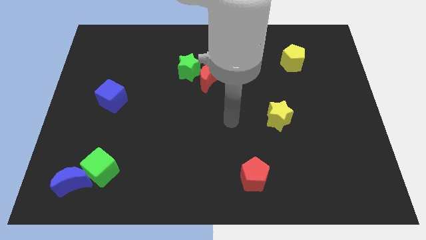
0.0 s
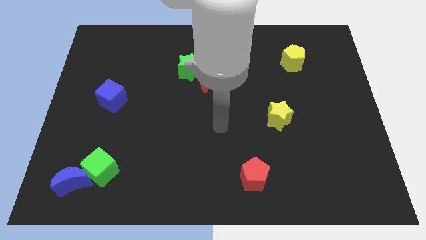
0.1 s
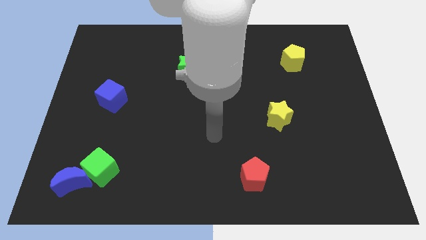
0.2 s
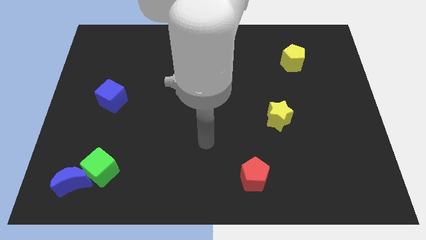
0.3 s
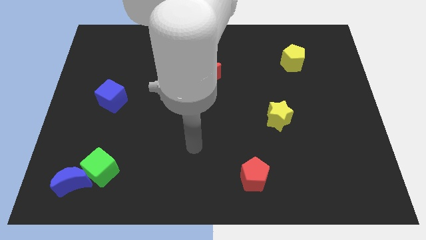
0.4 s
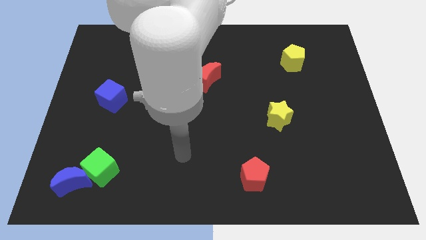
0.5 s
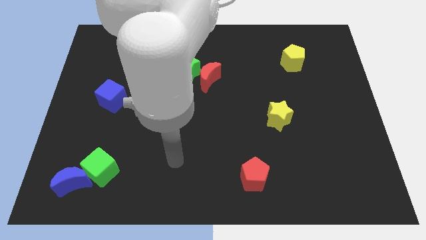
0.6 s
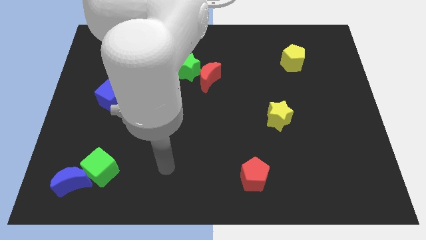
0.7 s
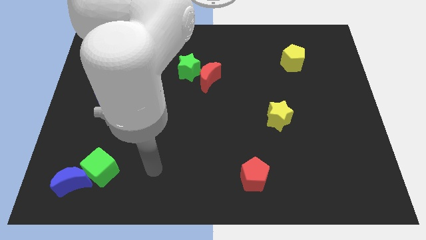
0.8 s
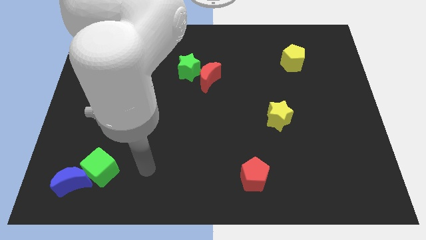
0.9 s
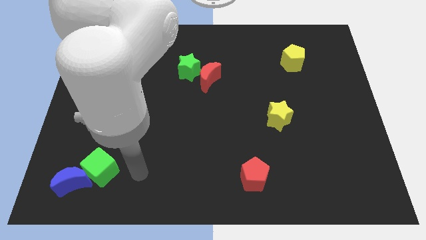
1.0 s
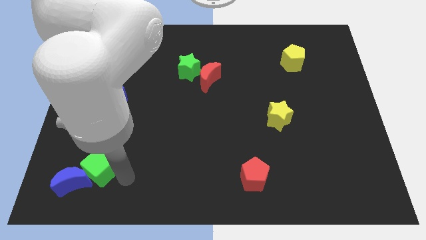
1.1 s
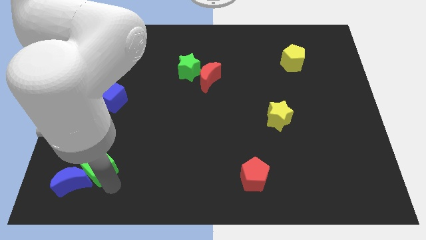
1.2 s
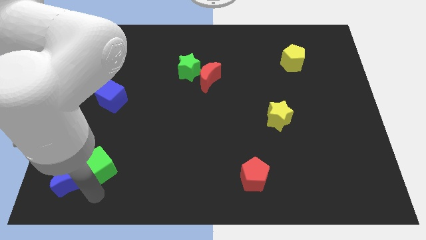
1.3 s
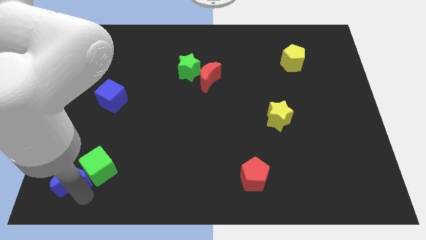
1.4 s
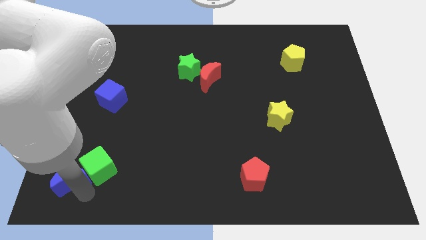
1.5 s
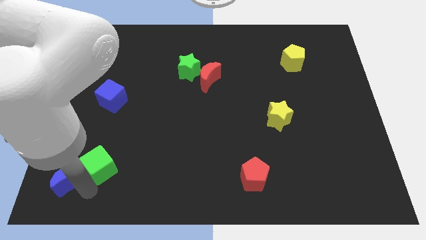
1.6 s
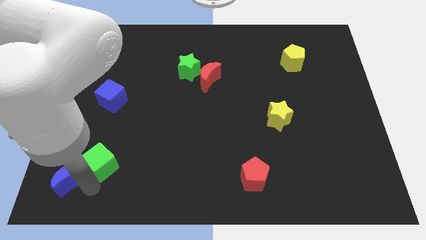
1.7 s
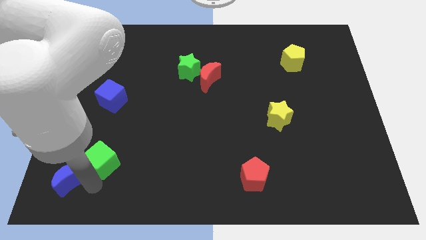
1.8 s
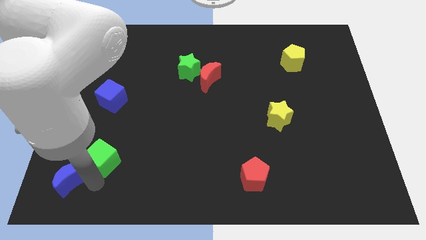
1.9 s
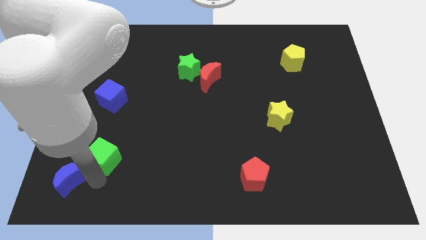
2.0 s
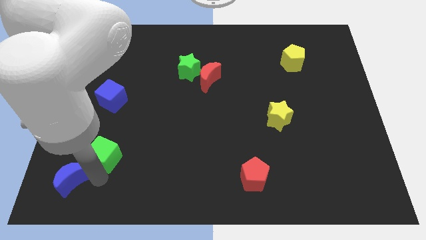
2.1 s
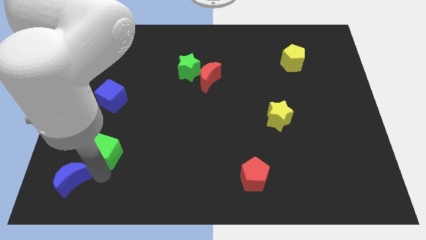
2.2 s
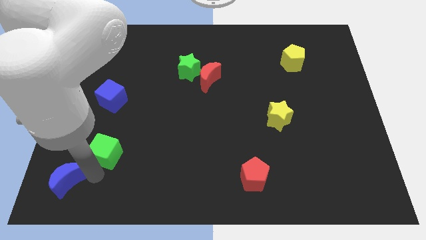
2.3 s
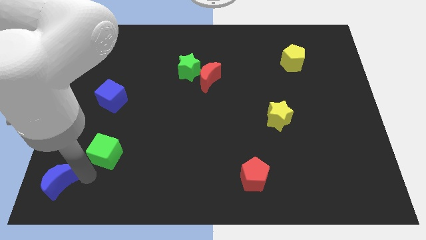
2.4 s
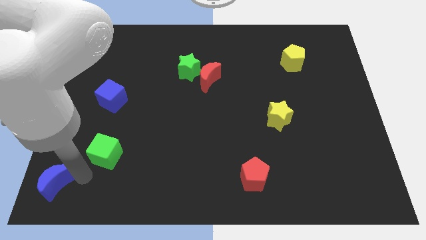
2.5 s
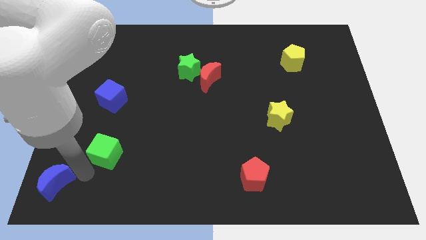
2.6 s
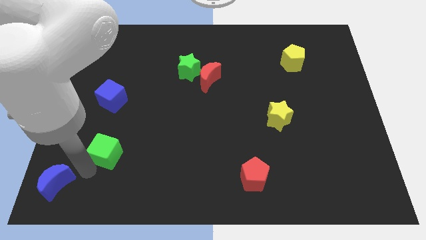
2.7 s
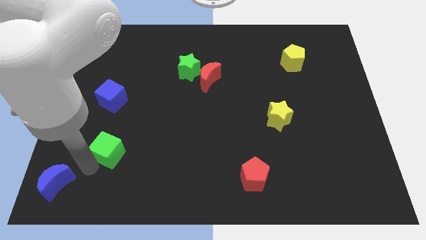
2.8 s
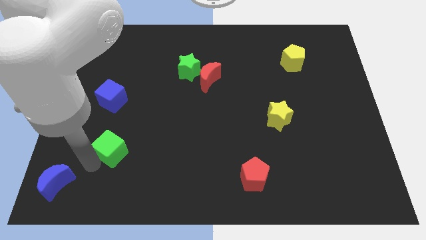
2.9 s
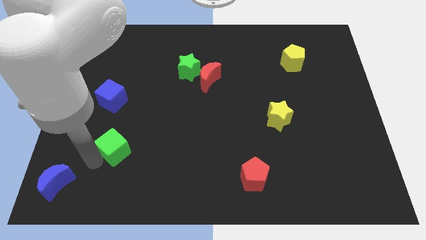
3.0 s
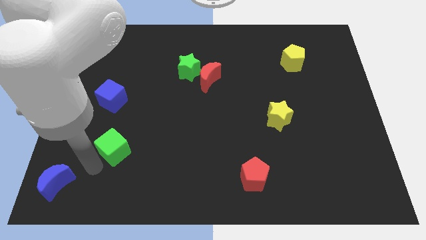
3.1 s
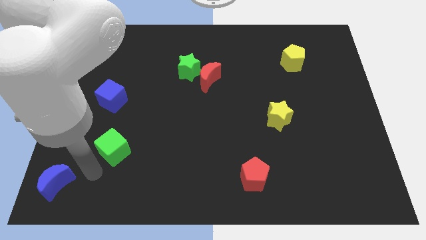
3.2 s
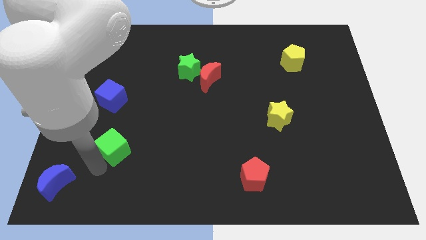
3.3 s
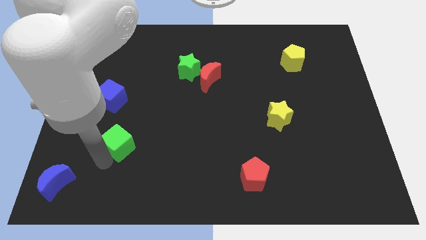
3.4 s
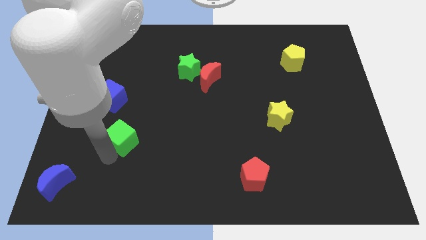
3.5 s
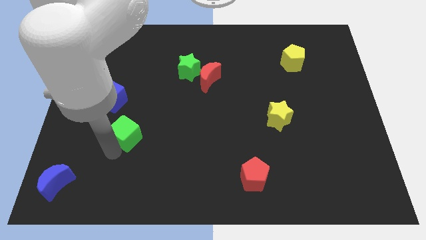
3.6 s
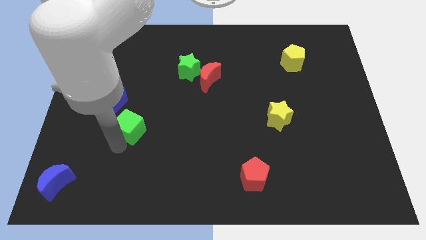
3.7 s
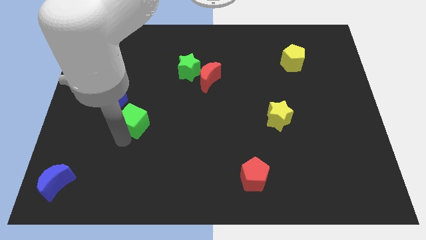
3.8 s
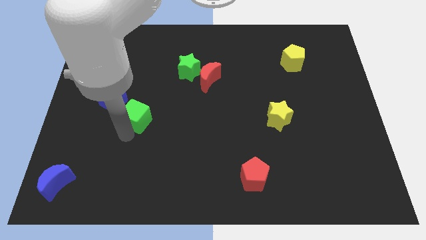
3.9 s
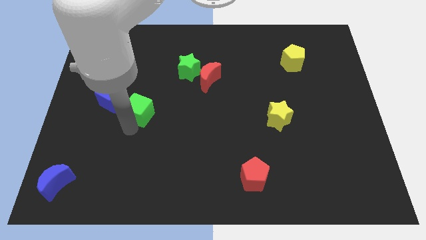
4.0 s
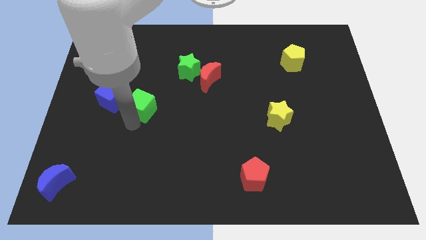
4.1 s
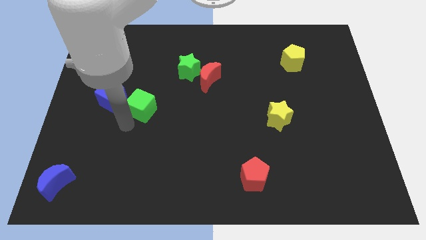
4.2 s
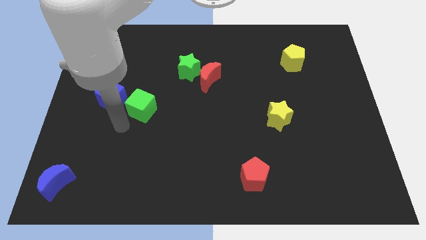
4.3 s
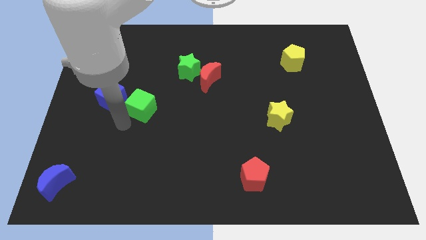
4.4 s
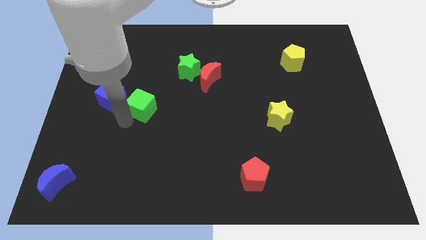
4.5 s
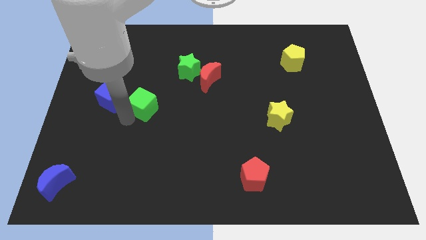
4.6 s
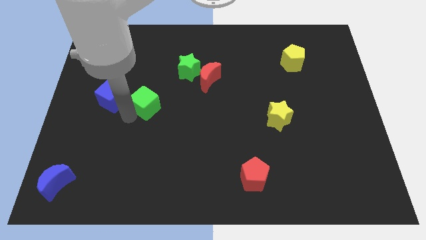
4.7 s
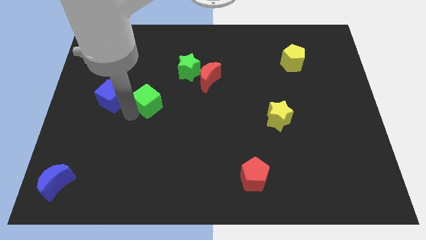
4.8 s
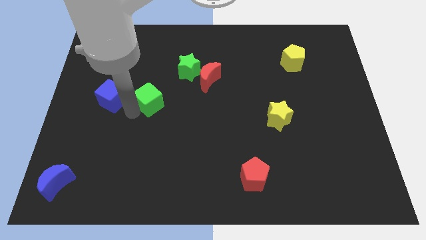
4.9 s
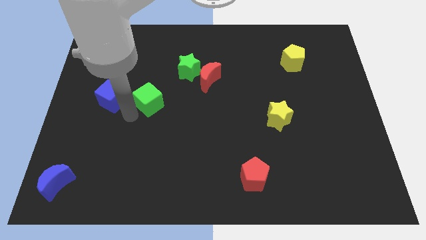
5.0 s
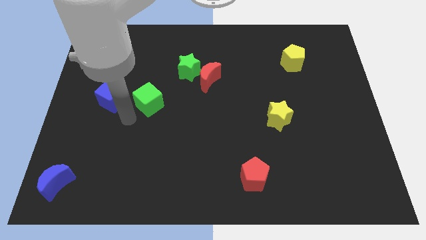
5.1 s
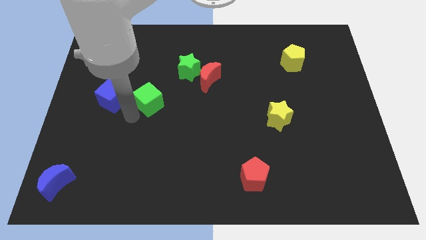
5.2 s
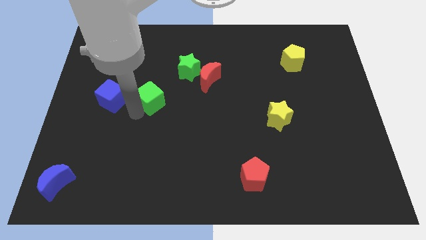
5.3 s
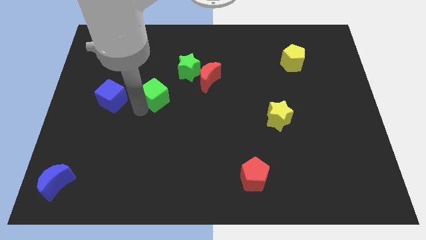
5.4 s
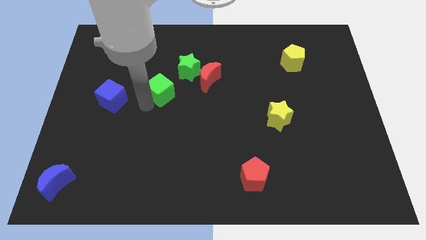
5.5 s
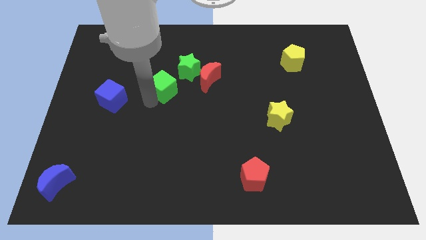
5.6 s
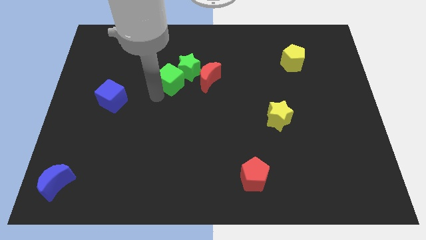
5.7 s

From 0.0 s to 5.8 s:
slide the green cube towards the green star

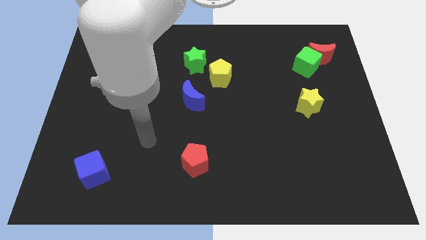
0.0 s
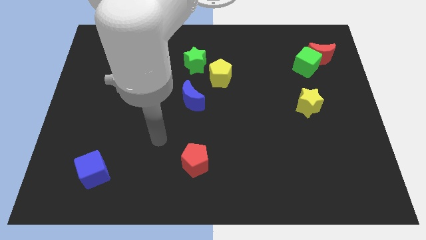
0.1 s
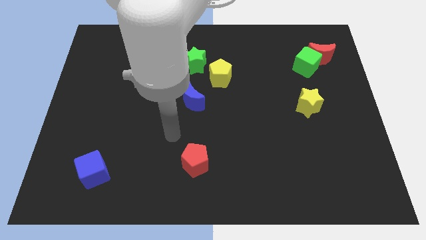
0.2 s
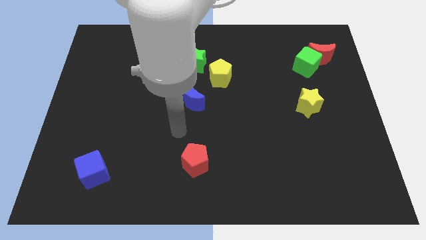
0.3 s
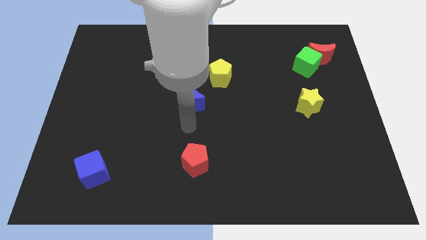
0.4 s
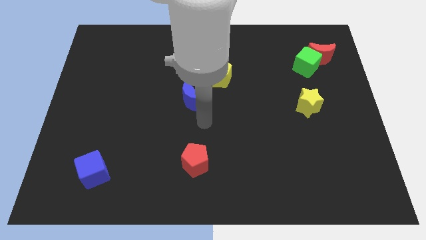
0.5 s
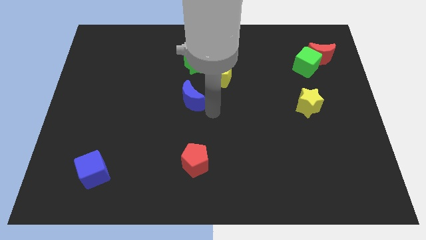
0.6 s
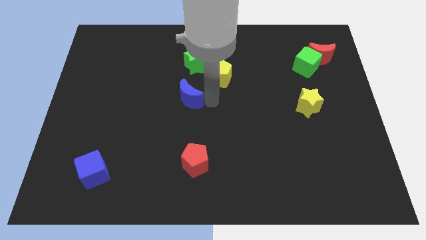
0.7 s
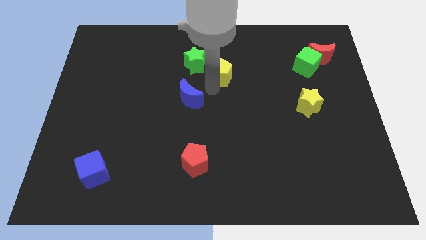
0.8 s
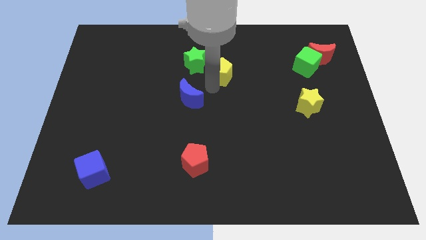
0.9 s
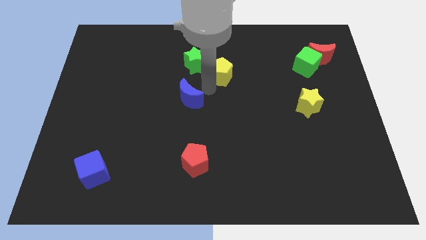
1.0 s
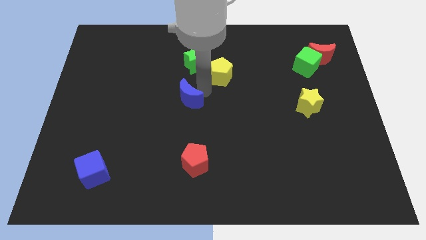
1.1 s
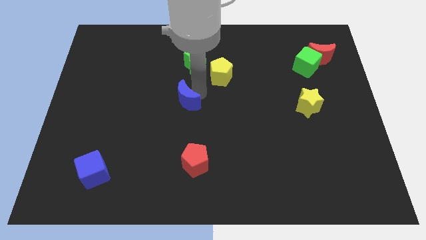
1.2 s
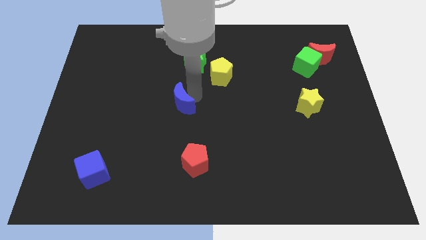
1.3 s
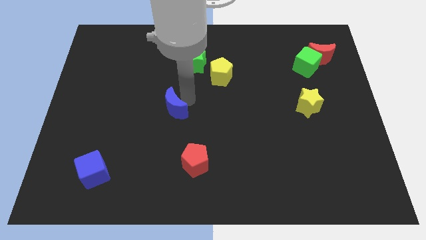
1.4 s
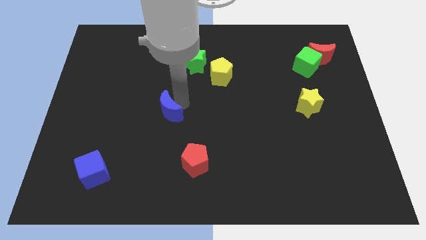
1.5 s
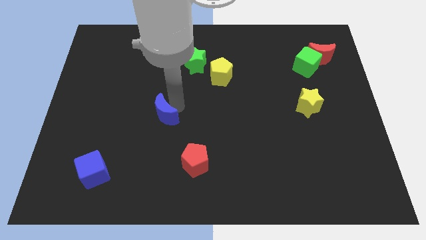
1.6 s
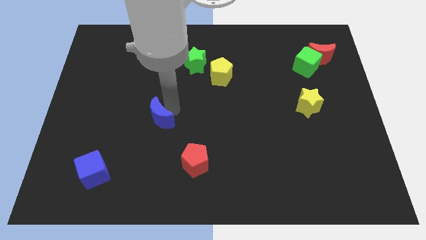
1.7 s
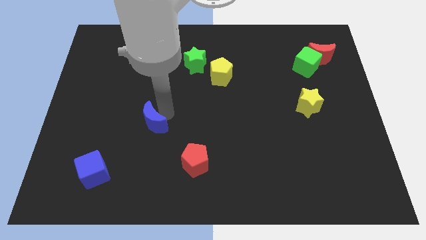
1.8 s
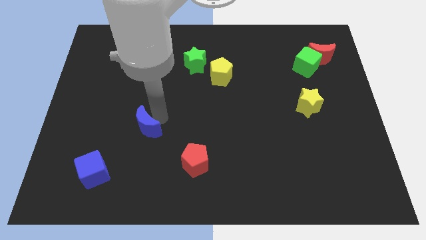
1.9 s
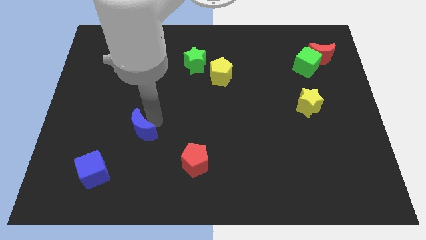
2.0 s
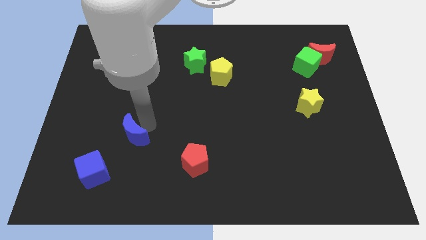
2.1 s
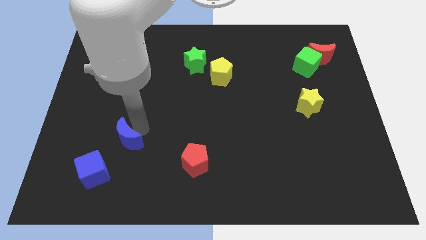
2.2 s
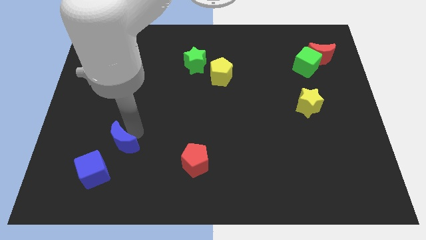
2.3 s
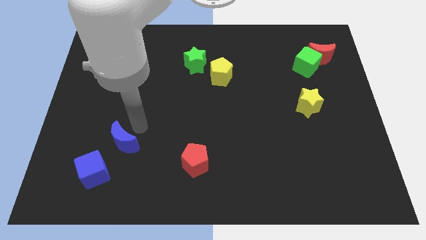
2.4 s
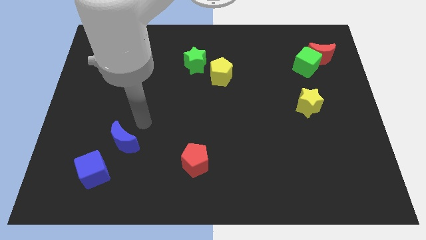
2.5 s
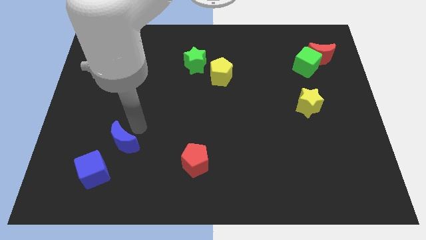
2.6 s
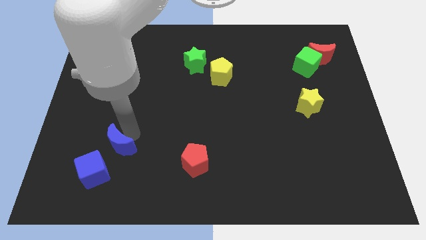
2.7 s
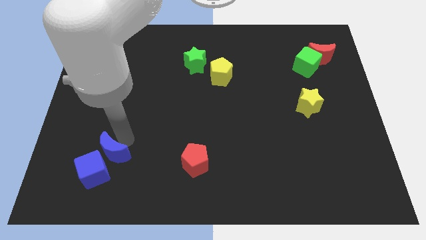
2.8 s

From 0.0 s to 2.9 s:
put the blue moon towards the blue cube
